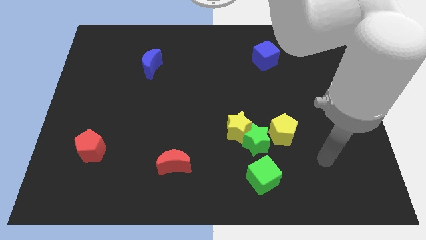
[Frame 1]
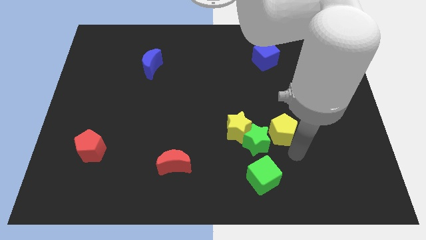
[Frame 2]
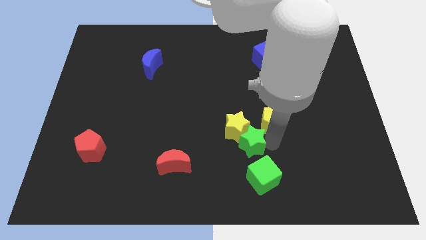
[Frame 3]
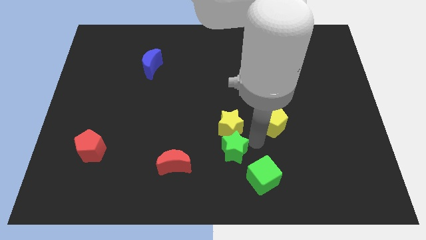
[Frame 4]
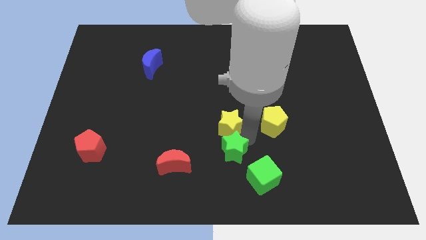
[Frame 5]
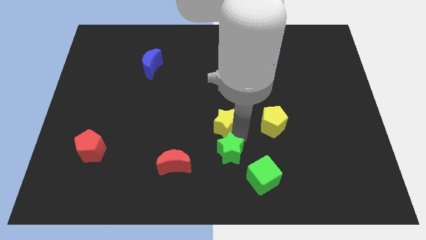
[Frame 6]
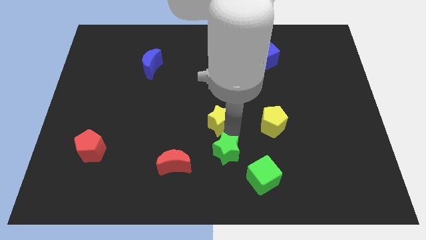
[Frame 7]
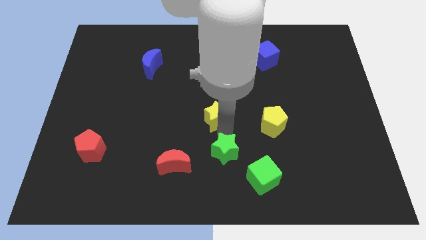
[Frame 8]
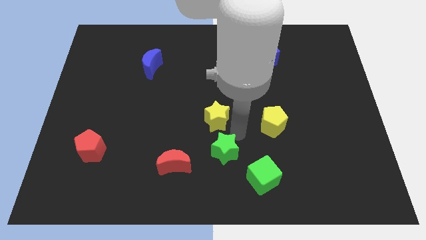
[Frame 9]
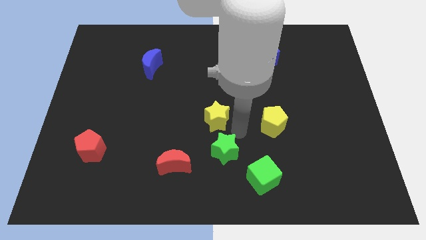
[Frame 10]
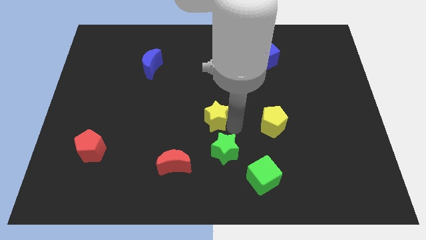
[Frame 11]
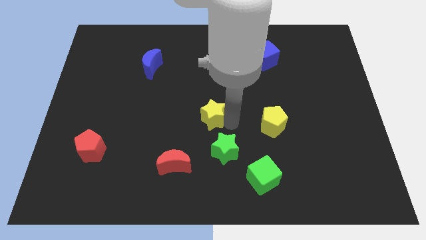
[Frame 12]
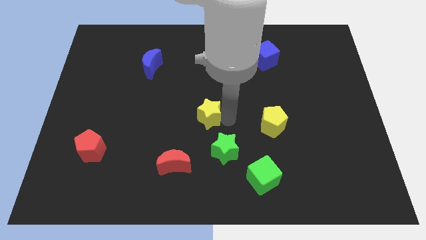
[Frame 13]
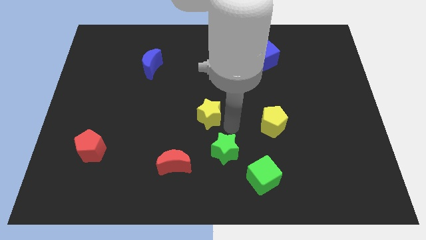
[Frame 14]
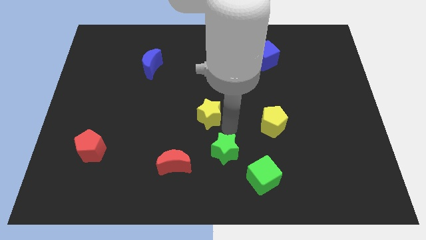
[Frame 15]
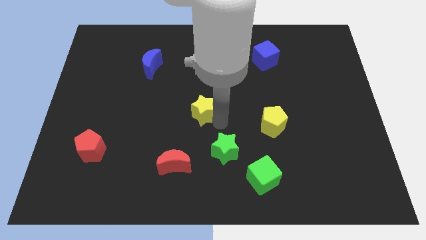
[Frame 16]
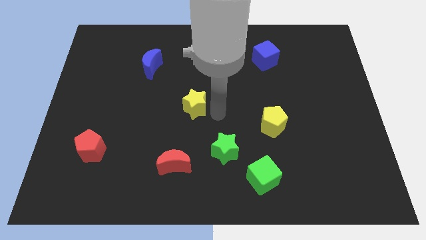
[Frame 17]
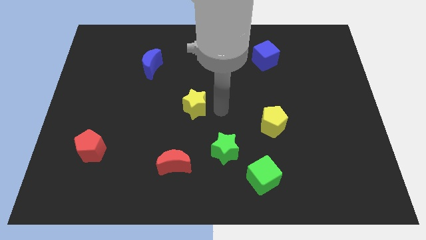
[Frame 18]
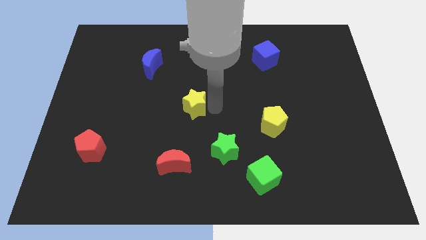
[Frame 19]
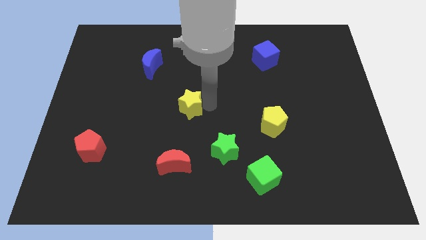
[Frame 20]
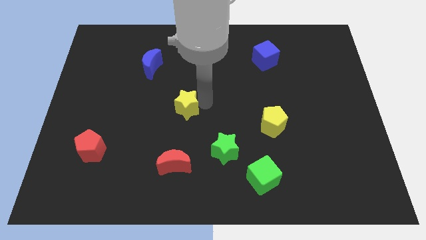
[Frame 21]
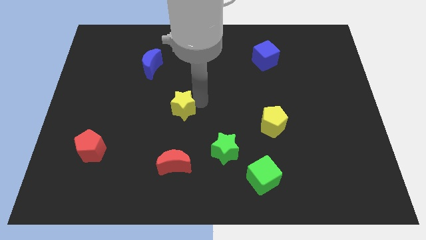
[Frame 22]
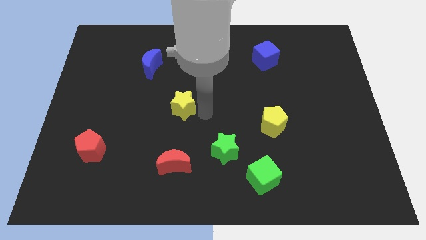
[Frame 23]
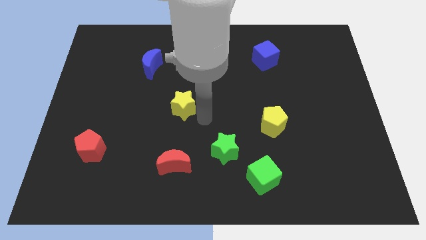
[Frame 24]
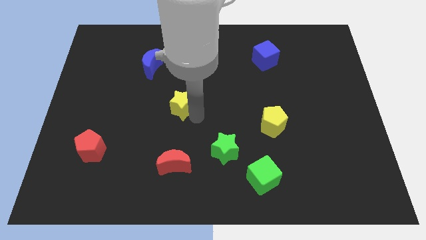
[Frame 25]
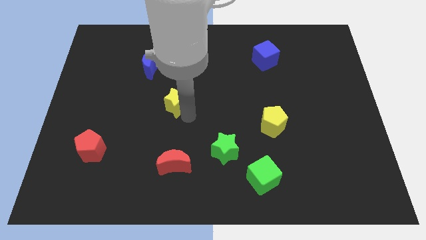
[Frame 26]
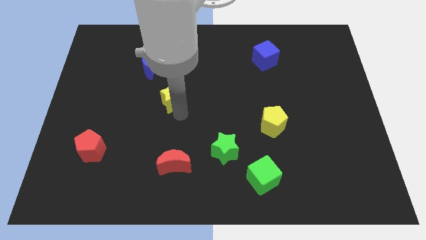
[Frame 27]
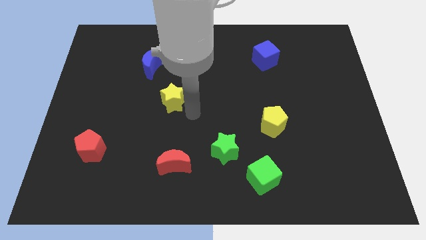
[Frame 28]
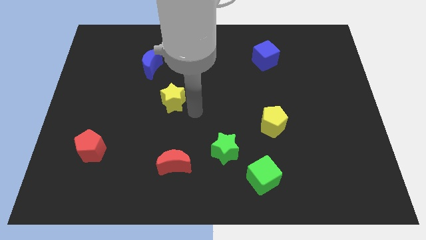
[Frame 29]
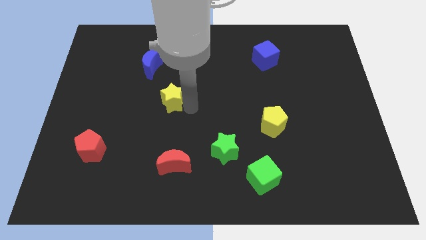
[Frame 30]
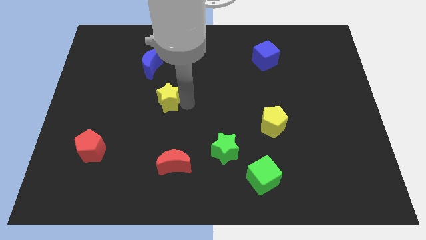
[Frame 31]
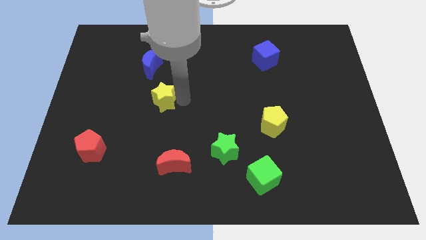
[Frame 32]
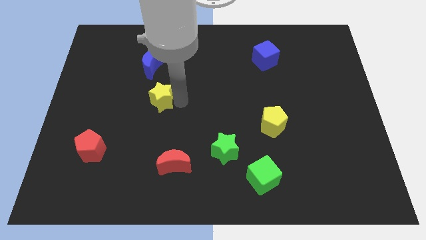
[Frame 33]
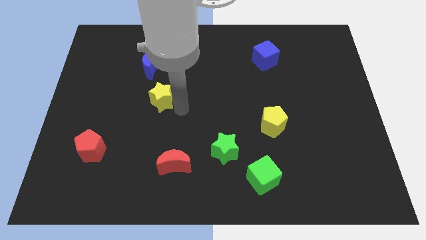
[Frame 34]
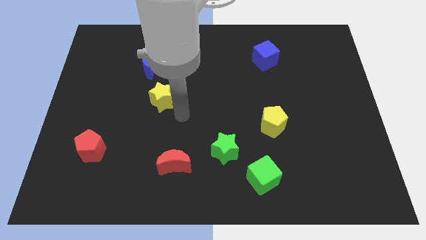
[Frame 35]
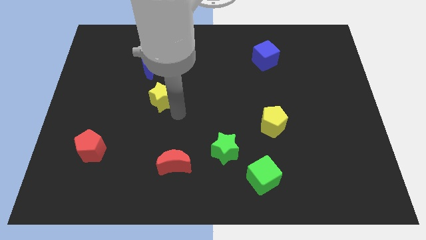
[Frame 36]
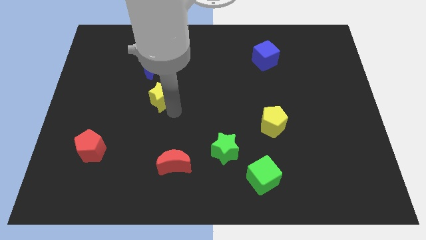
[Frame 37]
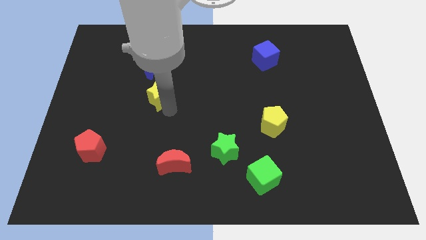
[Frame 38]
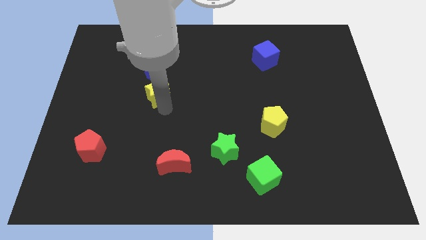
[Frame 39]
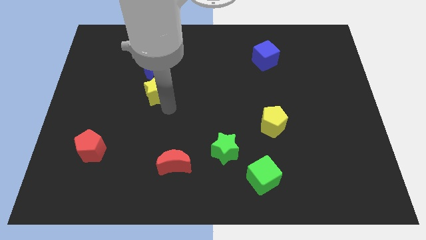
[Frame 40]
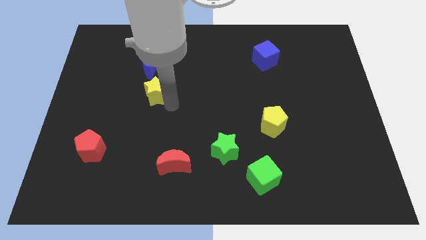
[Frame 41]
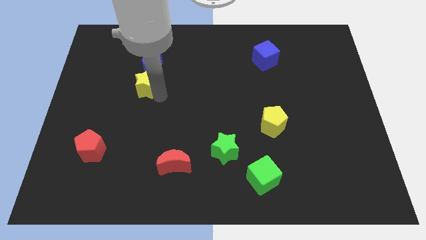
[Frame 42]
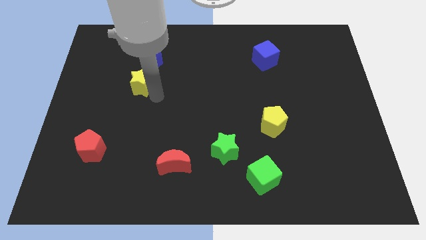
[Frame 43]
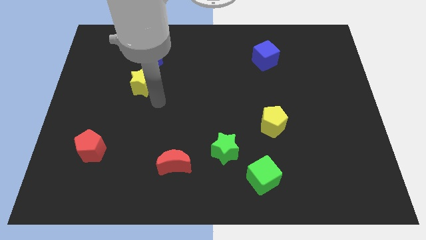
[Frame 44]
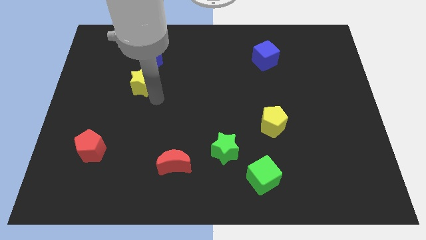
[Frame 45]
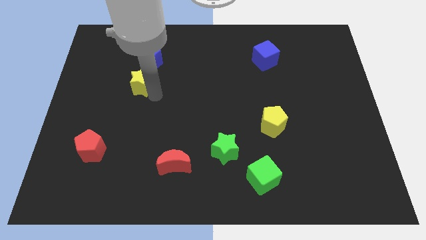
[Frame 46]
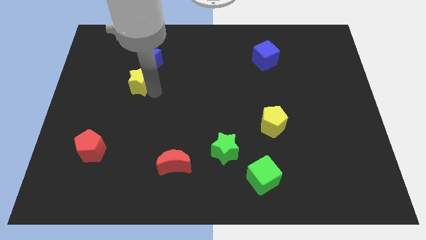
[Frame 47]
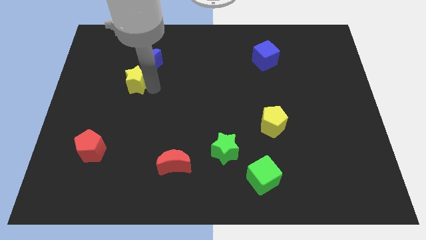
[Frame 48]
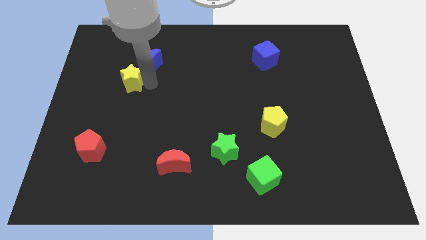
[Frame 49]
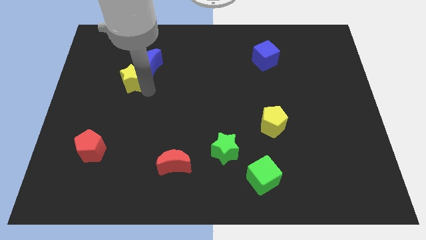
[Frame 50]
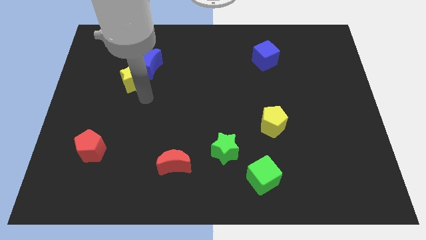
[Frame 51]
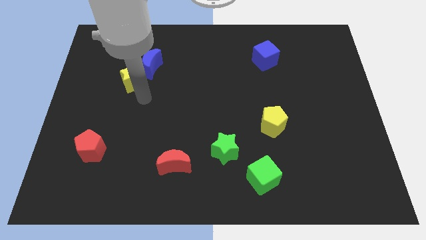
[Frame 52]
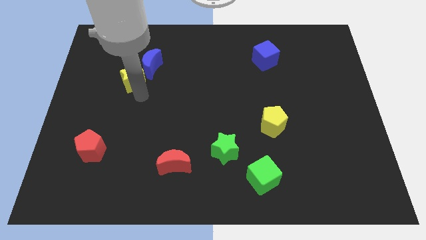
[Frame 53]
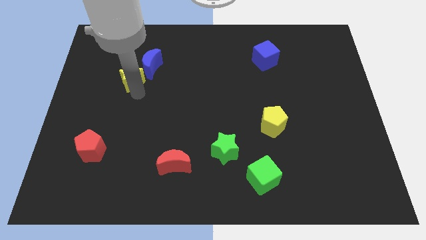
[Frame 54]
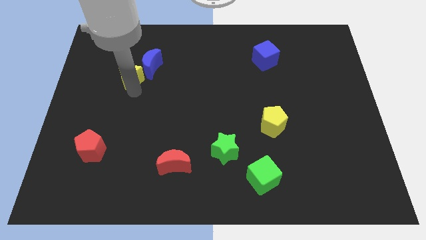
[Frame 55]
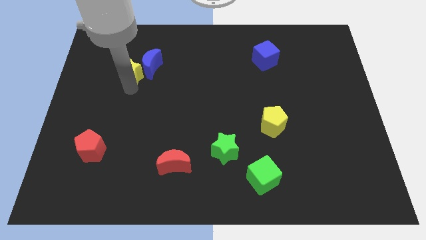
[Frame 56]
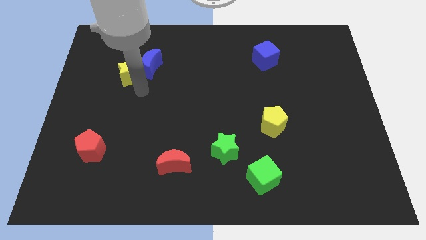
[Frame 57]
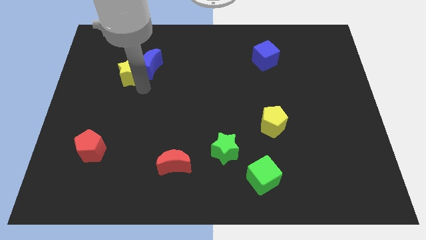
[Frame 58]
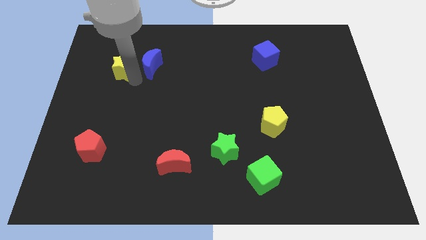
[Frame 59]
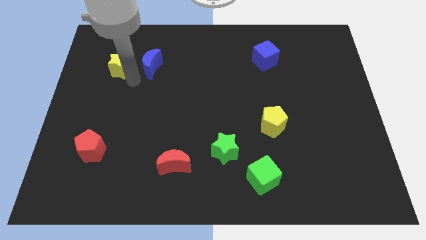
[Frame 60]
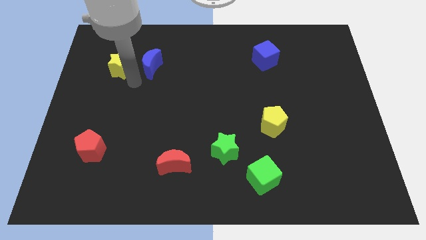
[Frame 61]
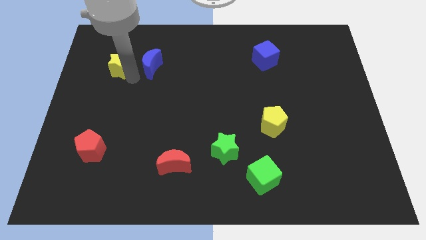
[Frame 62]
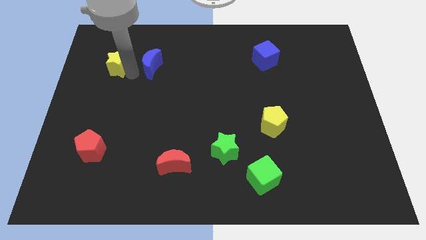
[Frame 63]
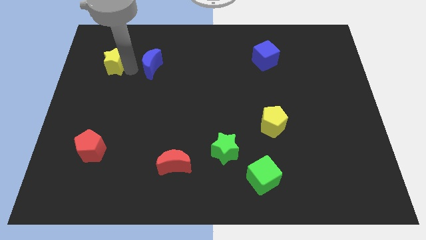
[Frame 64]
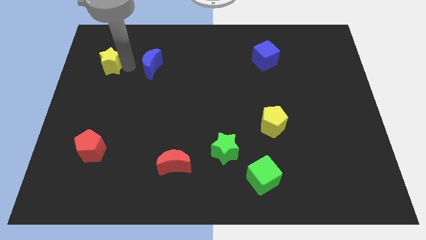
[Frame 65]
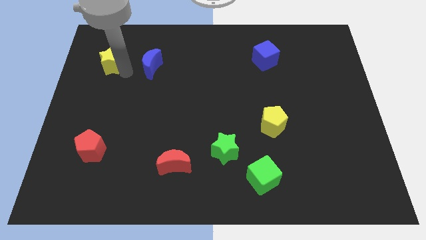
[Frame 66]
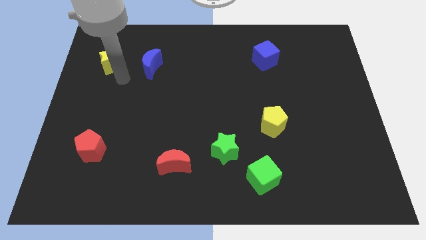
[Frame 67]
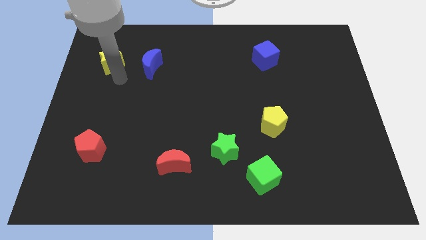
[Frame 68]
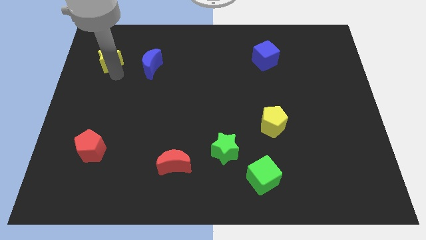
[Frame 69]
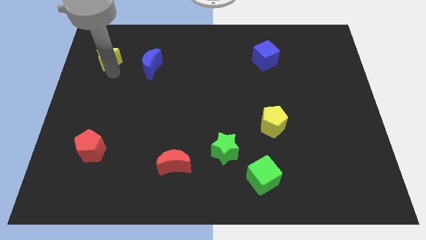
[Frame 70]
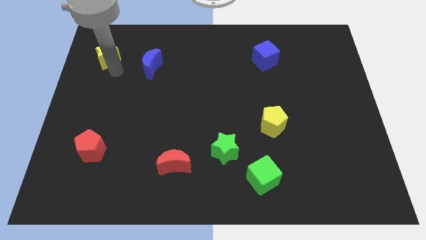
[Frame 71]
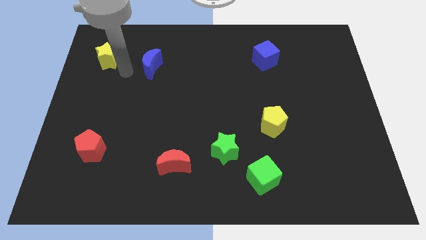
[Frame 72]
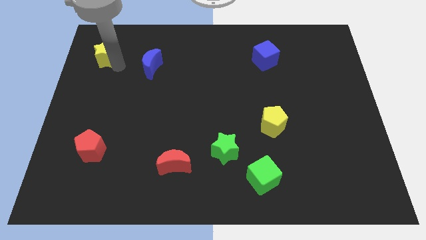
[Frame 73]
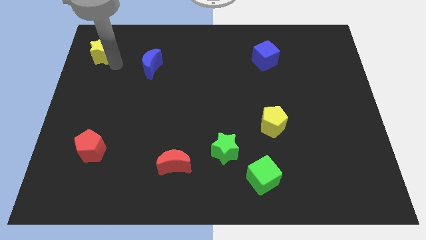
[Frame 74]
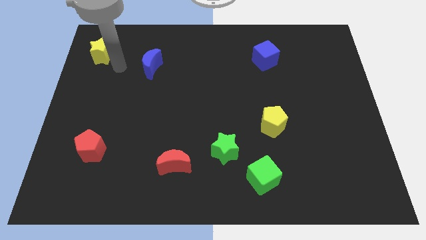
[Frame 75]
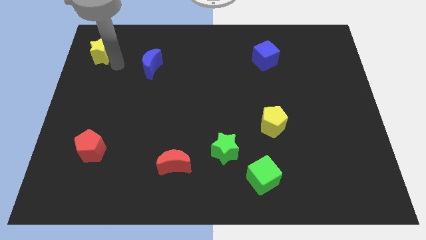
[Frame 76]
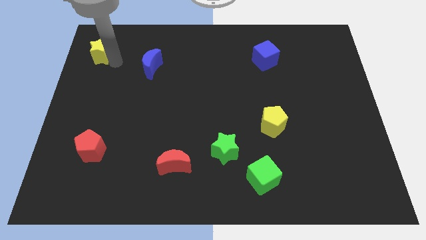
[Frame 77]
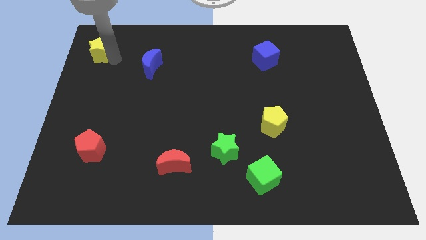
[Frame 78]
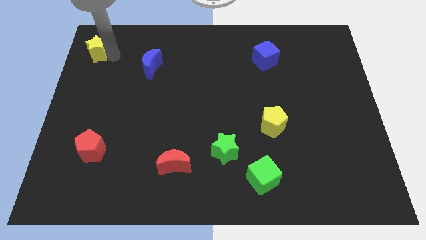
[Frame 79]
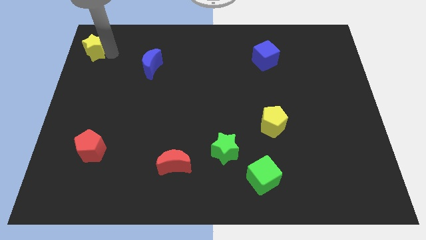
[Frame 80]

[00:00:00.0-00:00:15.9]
push the yellow star to the top left
